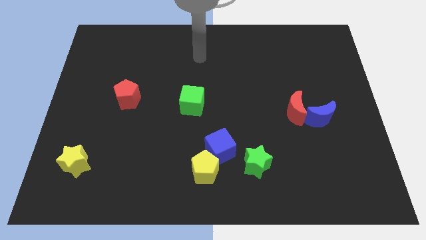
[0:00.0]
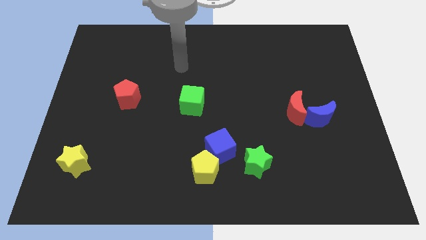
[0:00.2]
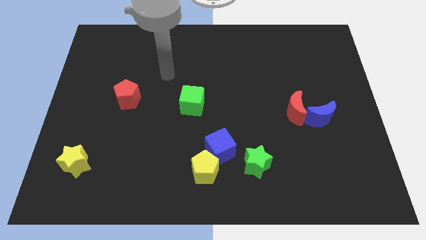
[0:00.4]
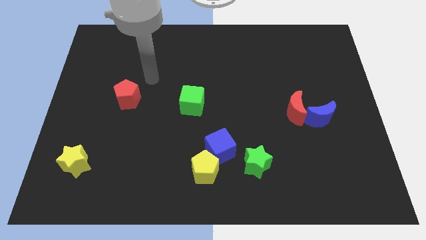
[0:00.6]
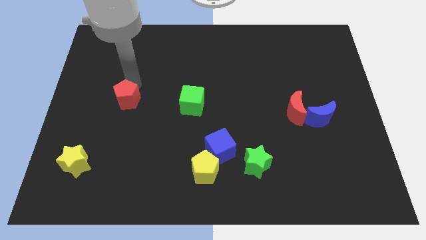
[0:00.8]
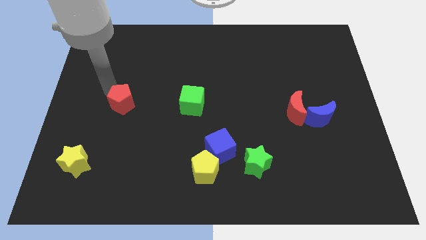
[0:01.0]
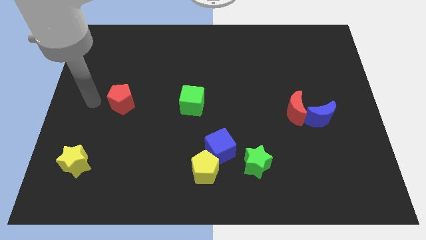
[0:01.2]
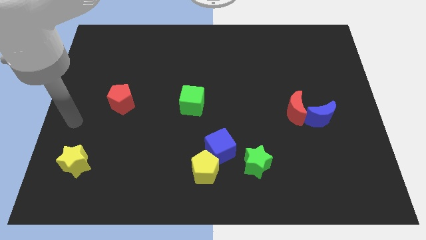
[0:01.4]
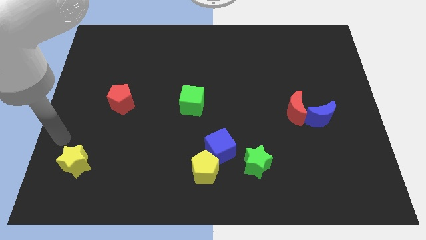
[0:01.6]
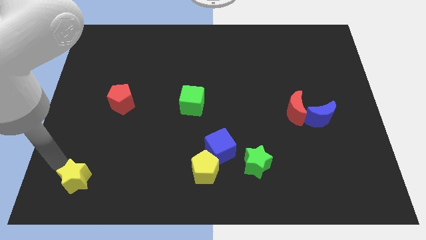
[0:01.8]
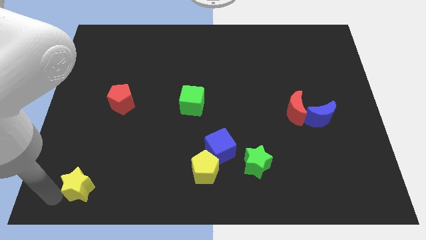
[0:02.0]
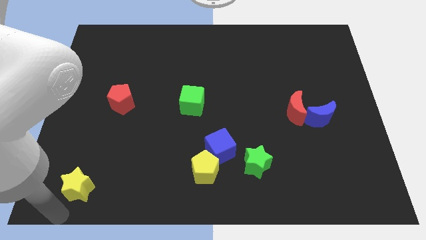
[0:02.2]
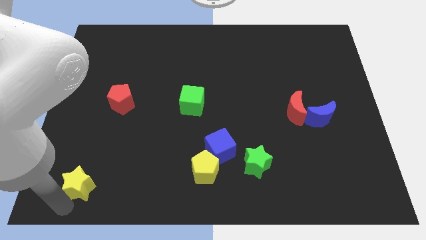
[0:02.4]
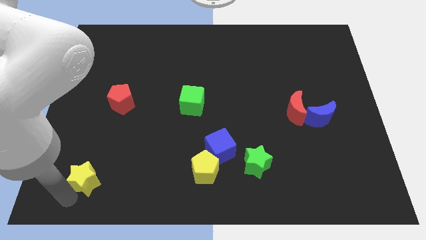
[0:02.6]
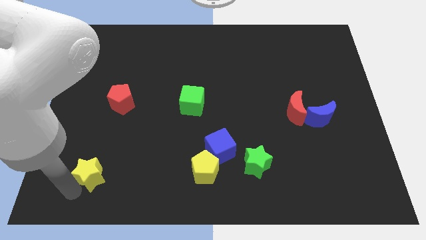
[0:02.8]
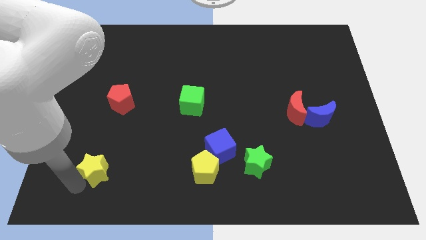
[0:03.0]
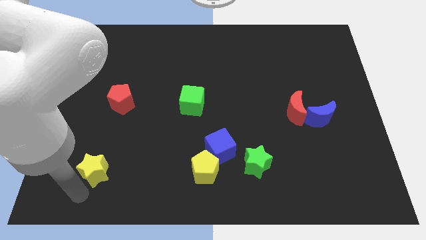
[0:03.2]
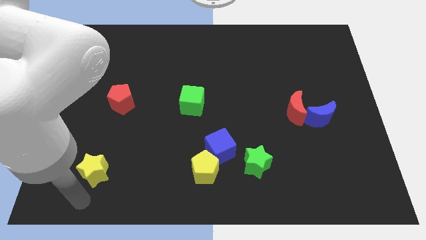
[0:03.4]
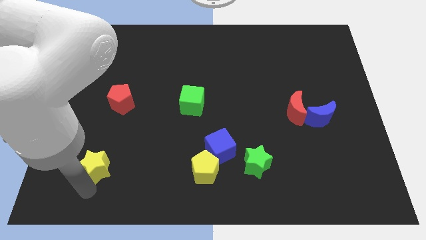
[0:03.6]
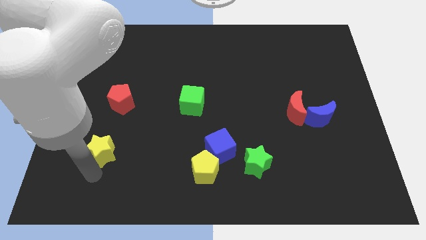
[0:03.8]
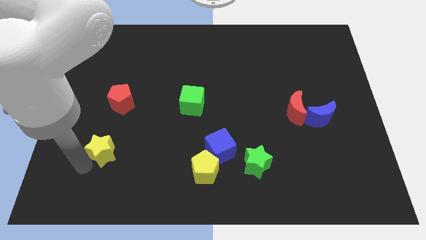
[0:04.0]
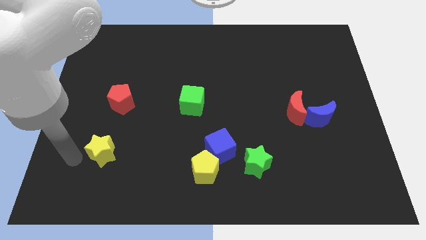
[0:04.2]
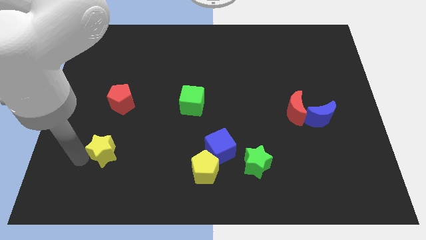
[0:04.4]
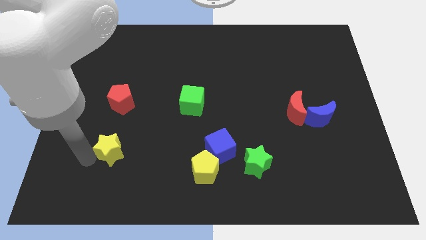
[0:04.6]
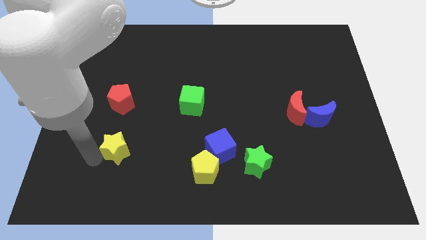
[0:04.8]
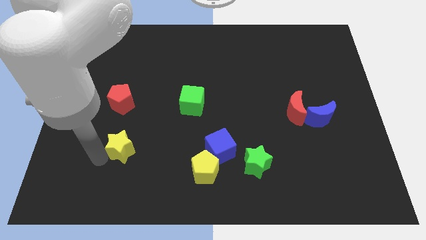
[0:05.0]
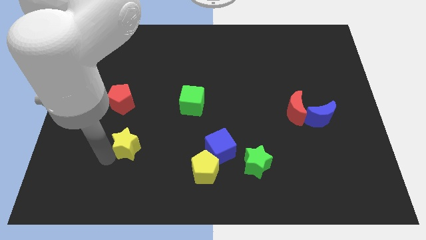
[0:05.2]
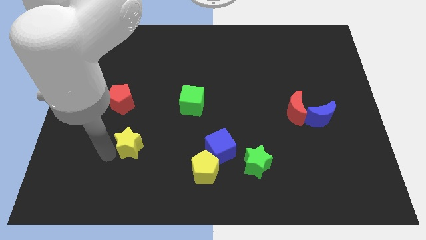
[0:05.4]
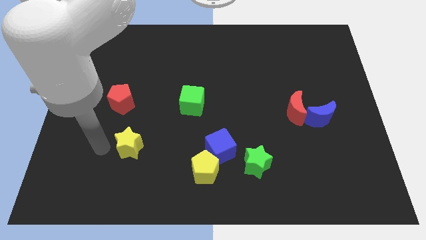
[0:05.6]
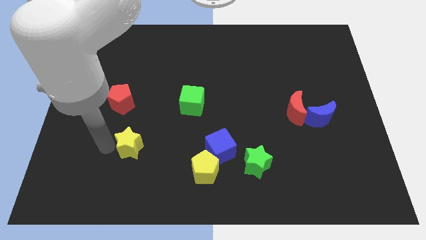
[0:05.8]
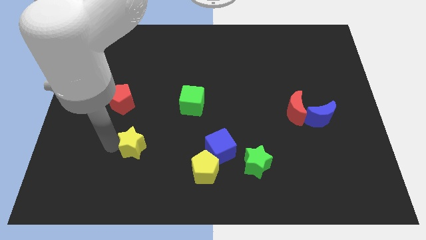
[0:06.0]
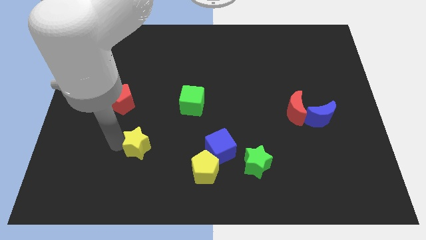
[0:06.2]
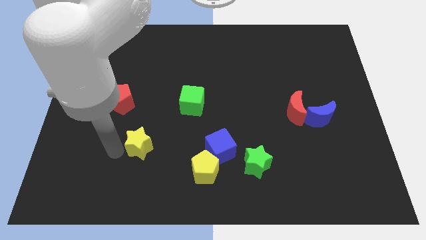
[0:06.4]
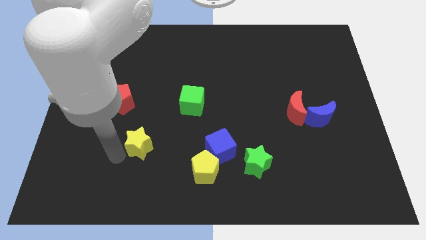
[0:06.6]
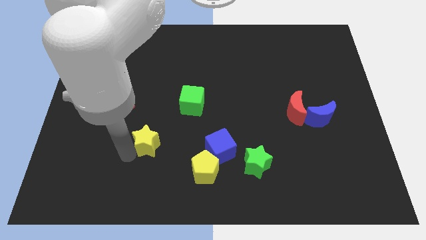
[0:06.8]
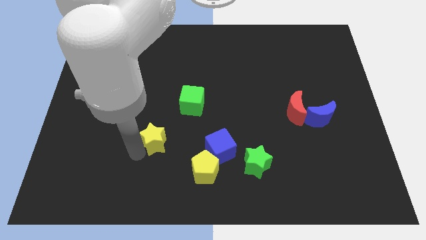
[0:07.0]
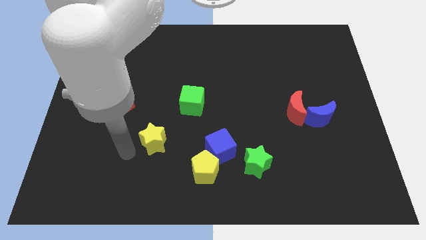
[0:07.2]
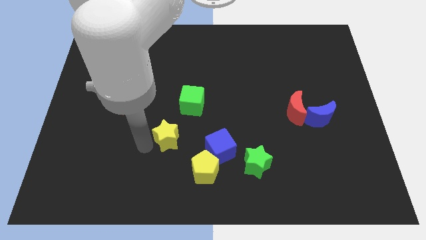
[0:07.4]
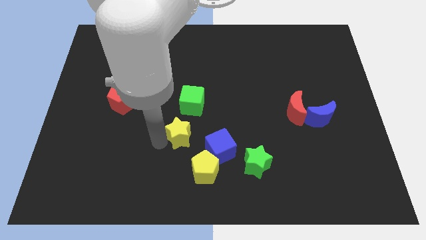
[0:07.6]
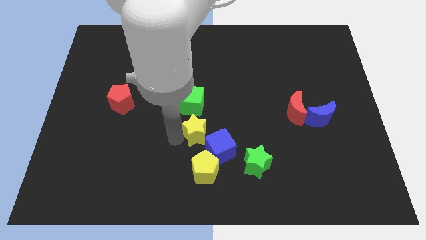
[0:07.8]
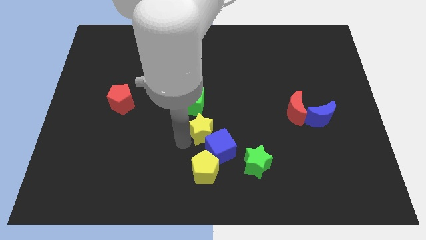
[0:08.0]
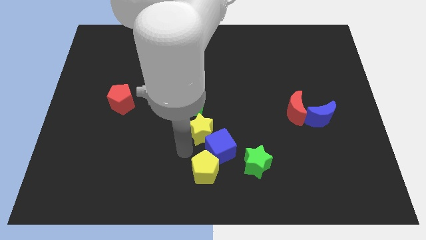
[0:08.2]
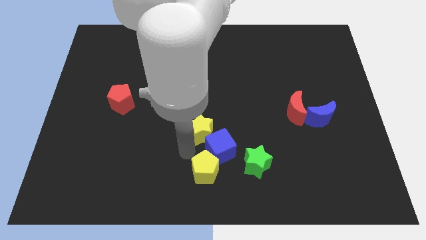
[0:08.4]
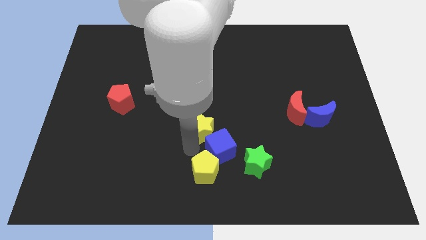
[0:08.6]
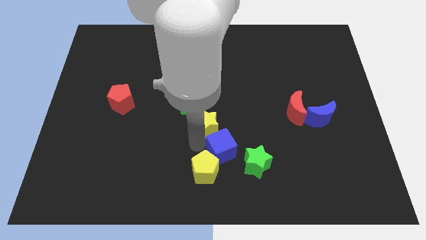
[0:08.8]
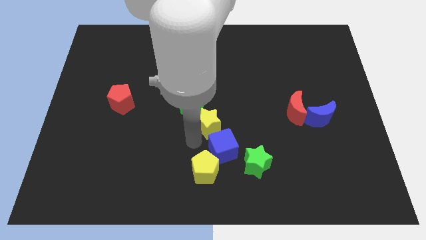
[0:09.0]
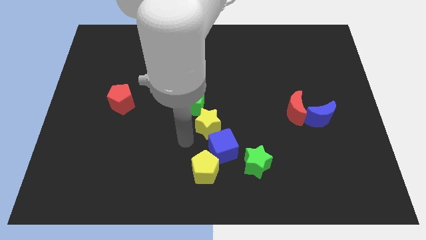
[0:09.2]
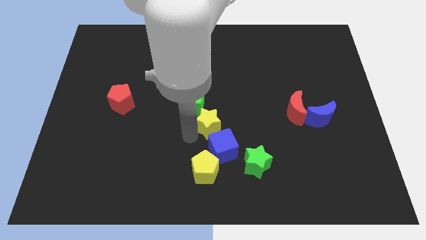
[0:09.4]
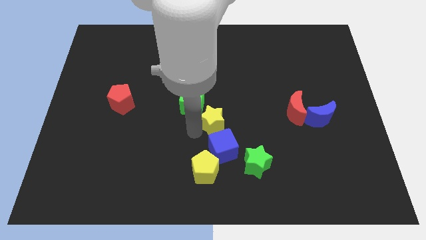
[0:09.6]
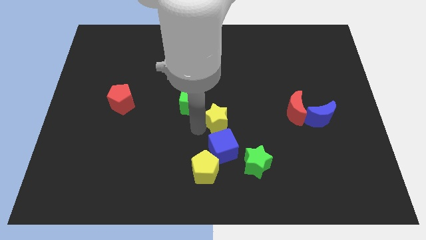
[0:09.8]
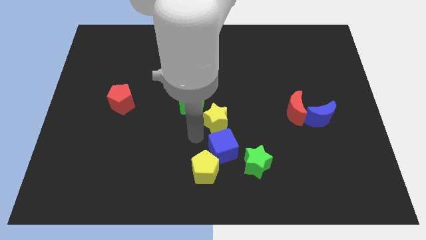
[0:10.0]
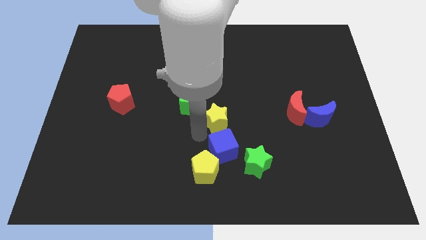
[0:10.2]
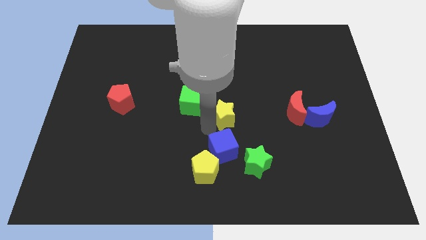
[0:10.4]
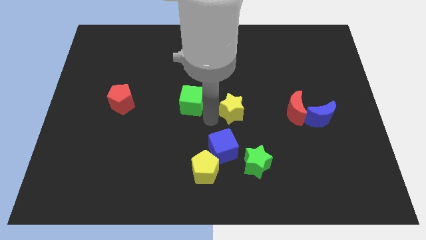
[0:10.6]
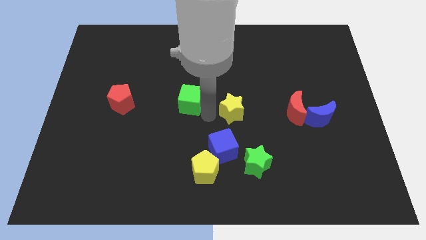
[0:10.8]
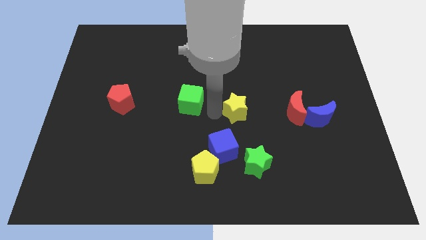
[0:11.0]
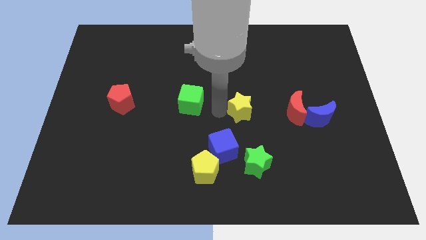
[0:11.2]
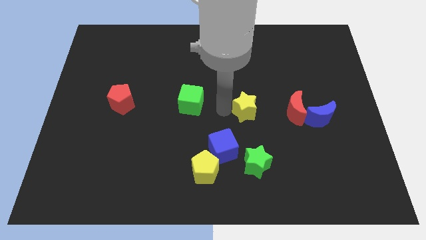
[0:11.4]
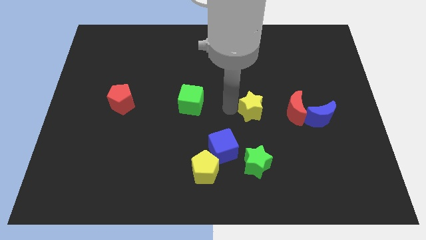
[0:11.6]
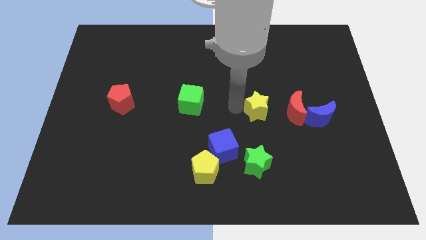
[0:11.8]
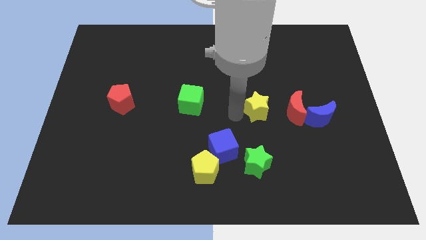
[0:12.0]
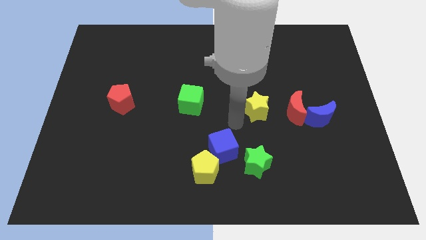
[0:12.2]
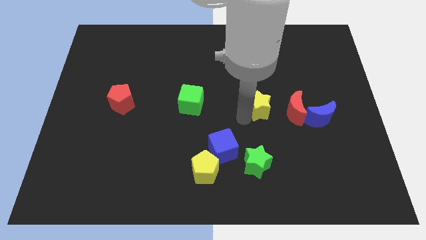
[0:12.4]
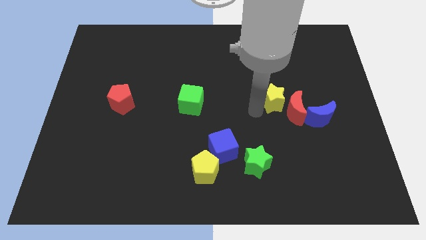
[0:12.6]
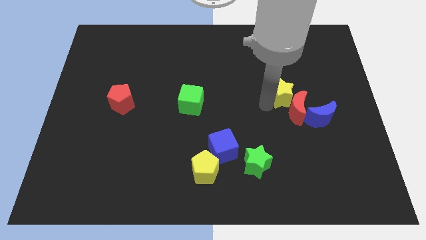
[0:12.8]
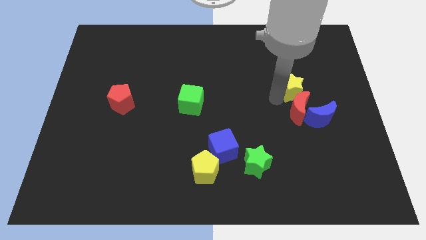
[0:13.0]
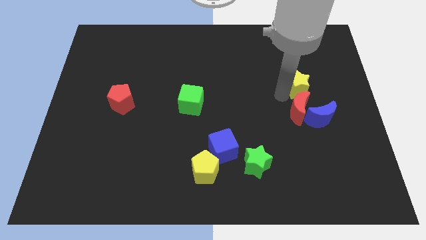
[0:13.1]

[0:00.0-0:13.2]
push the yellow star above the blue moon
